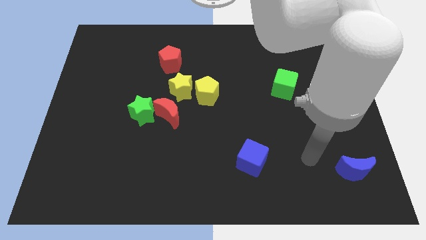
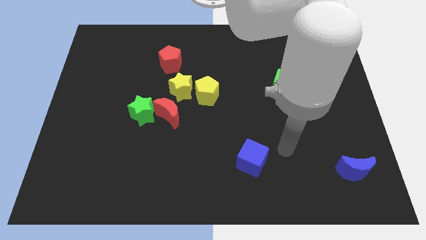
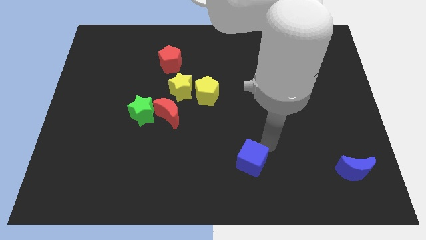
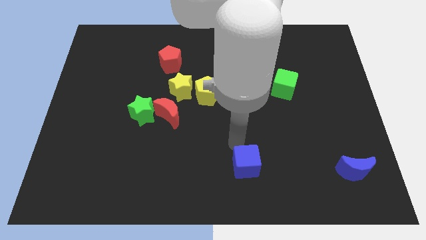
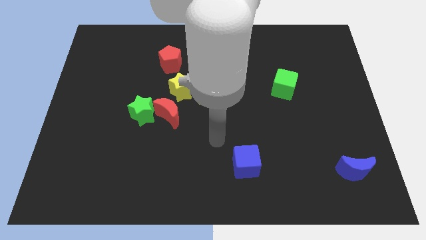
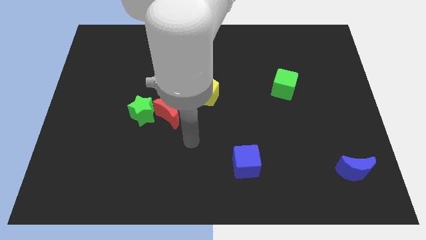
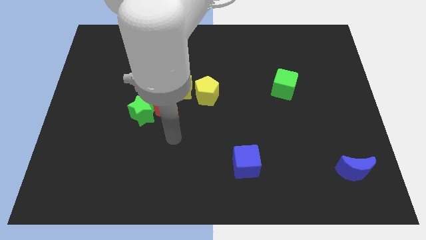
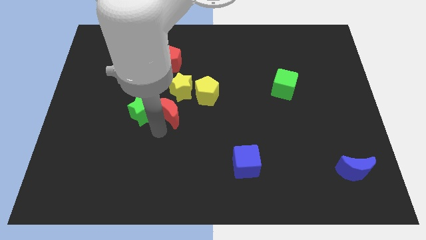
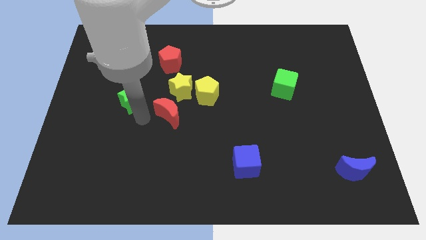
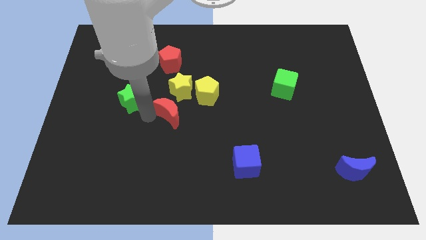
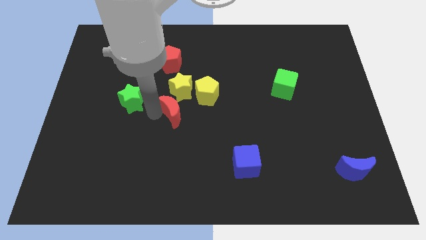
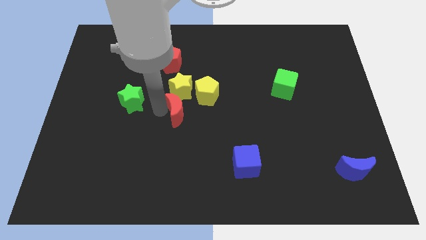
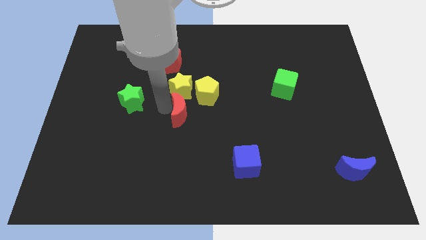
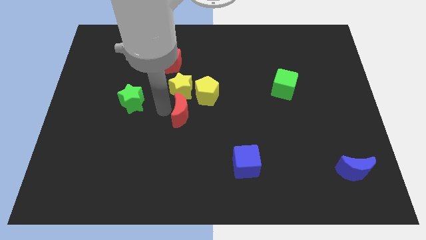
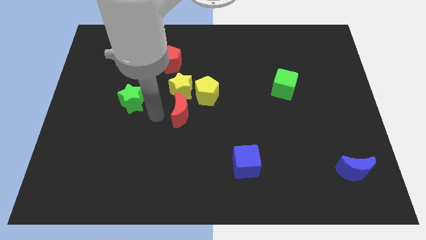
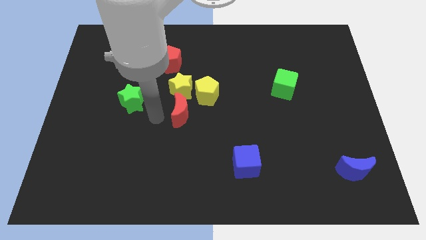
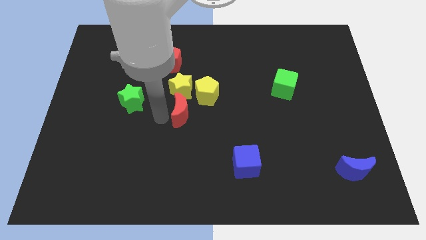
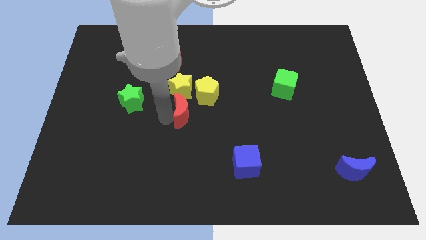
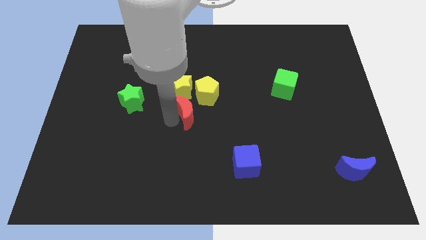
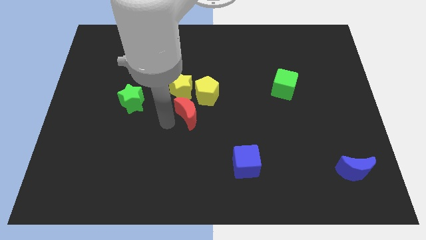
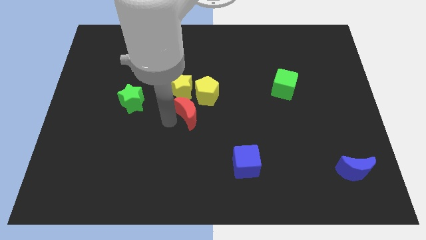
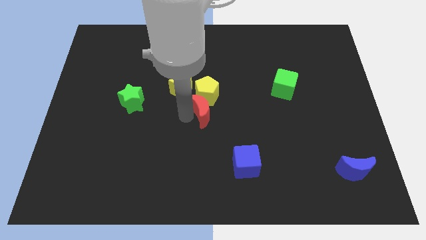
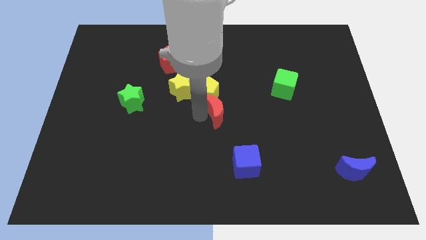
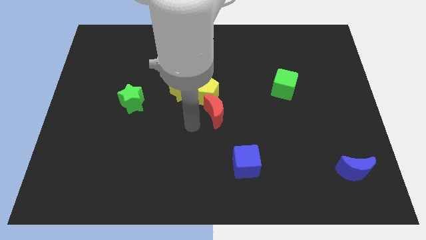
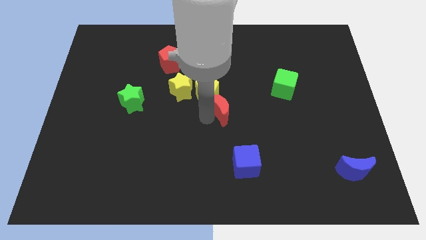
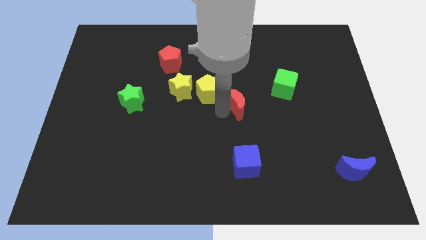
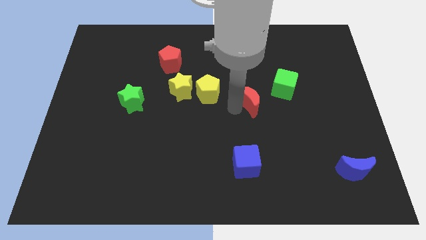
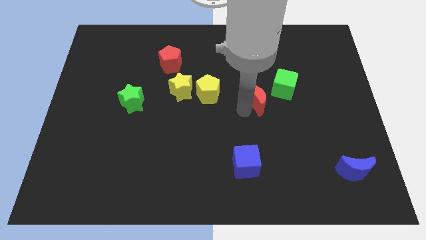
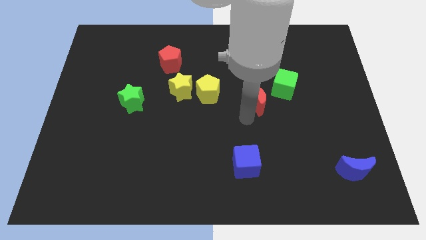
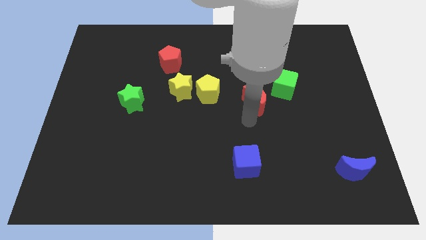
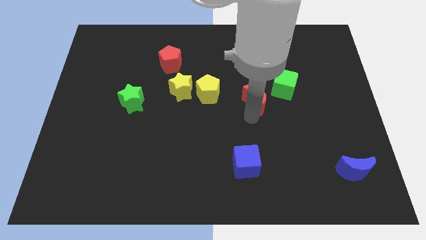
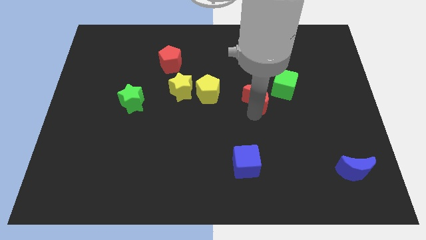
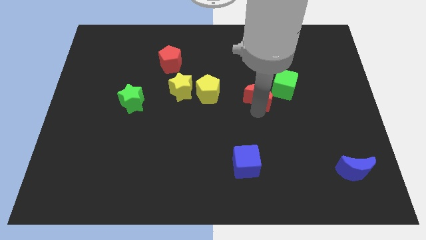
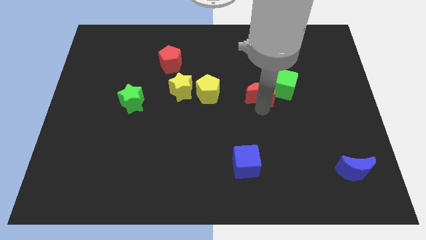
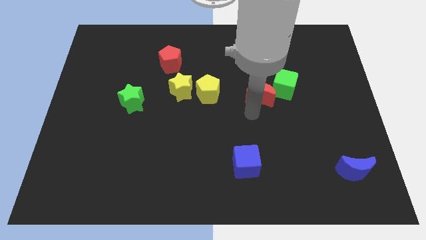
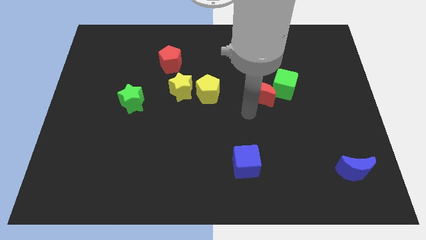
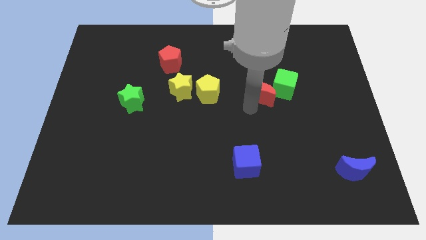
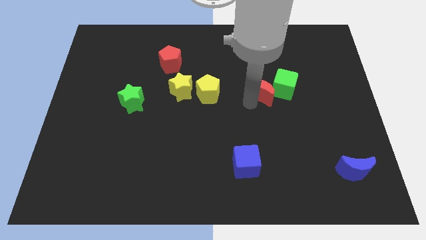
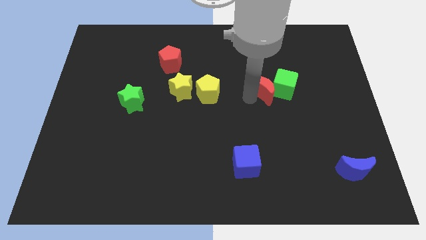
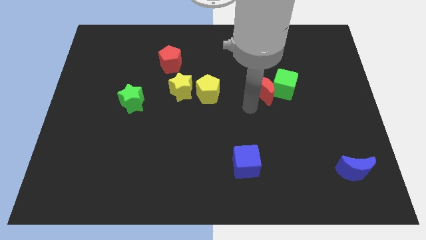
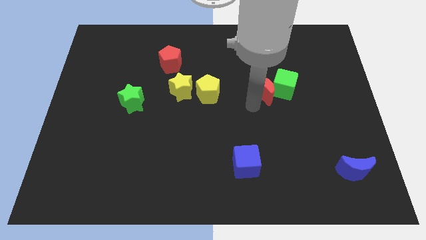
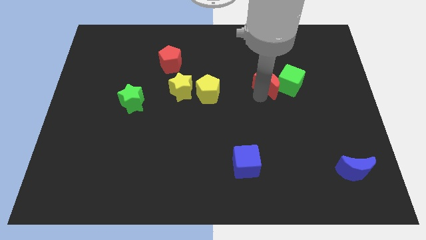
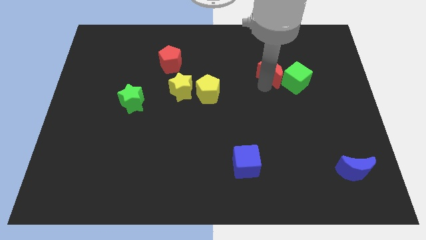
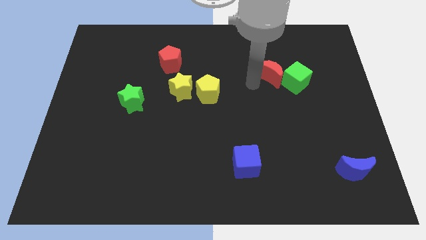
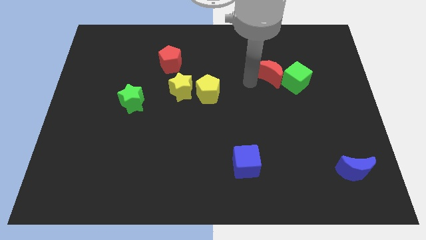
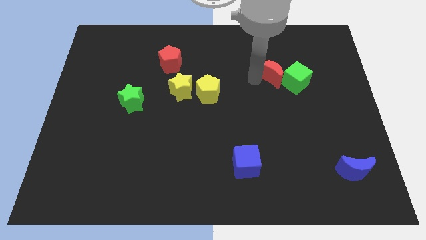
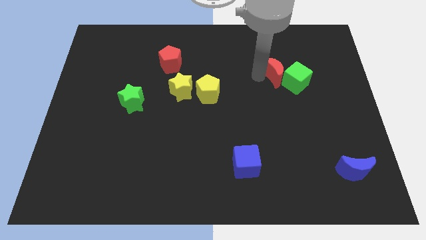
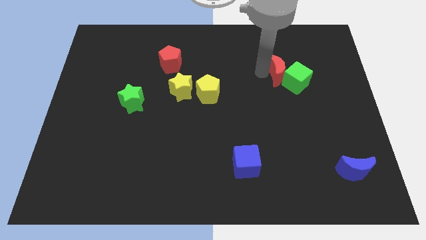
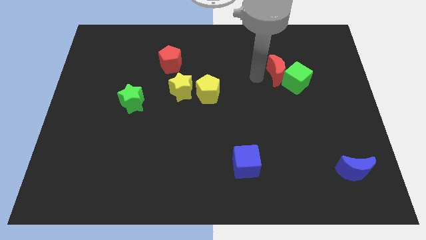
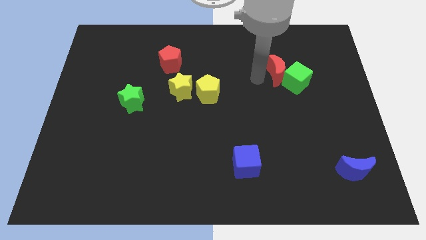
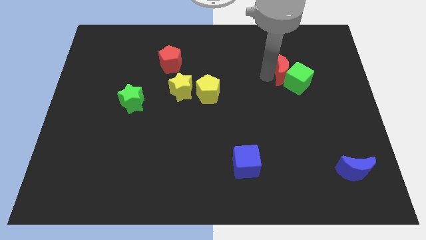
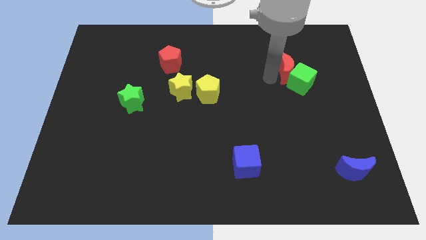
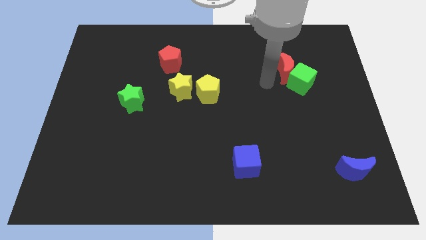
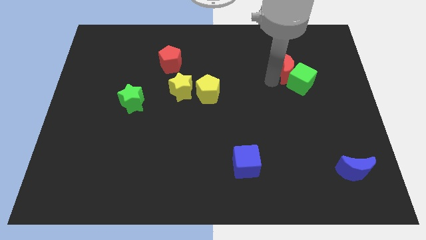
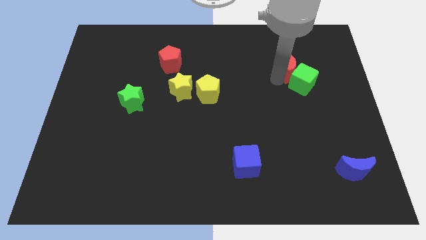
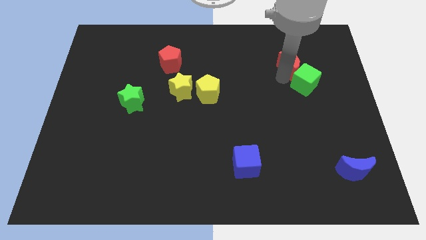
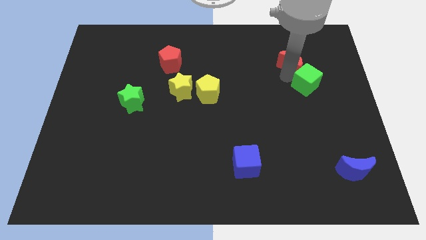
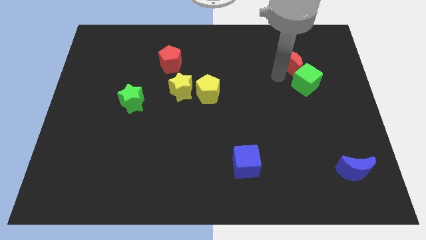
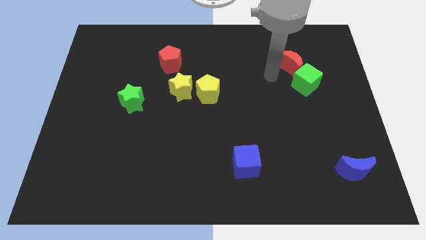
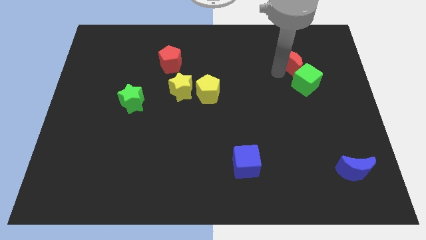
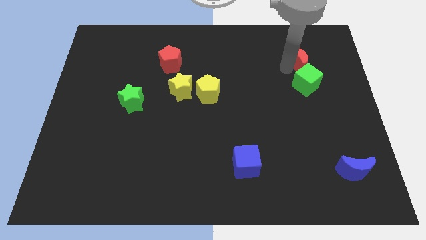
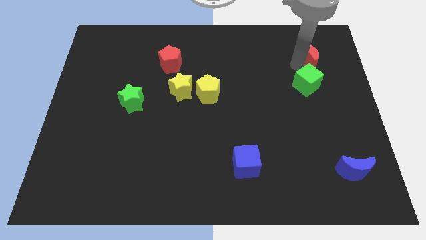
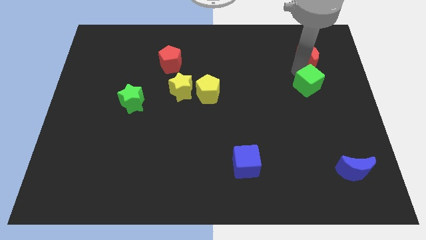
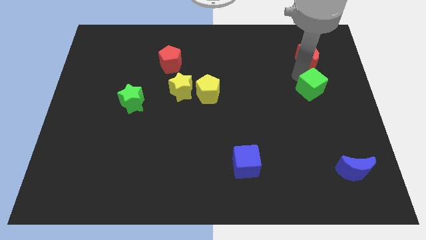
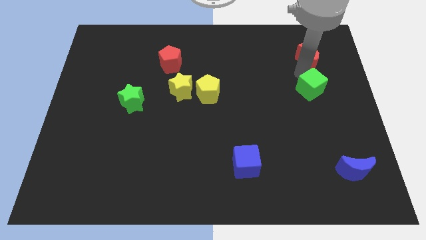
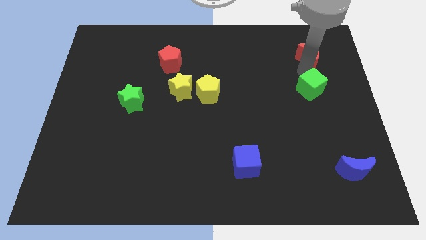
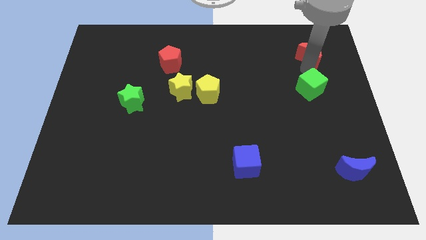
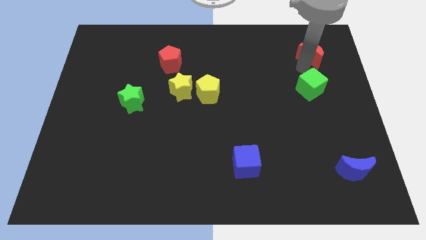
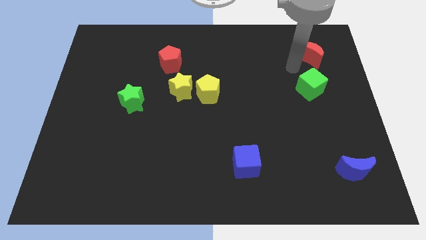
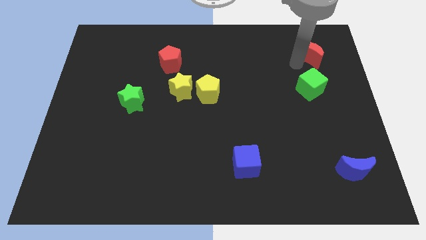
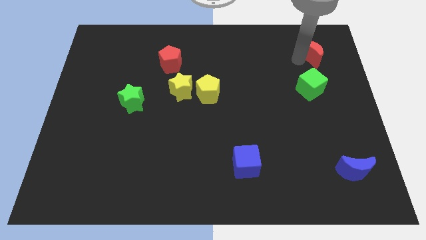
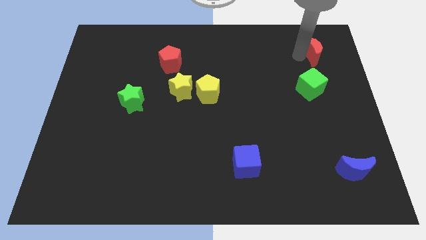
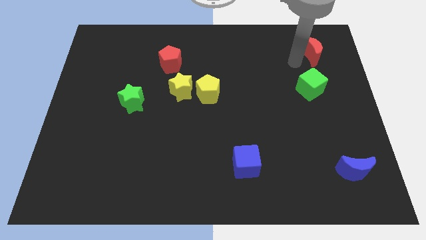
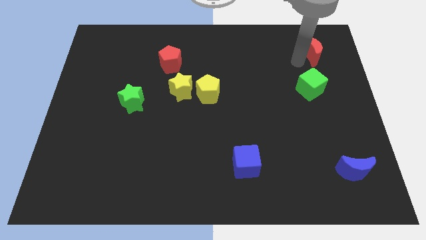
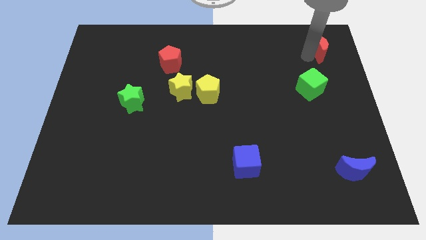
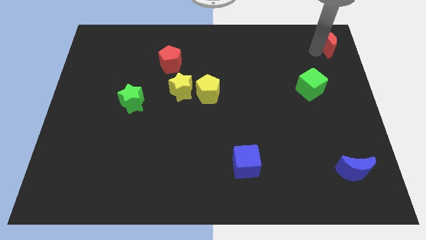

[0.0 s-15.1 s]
slide the red moon to the top right of the board
